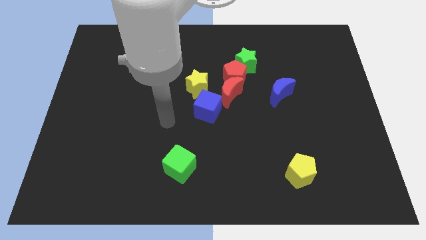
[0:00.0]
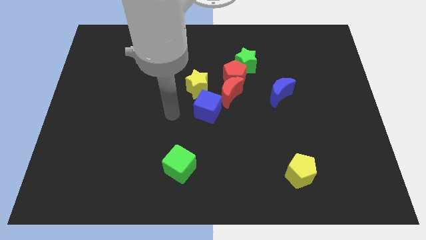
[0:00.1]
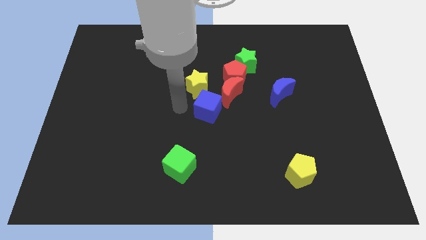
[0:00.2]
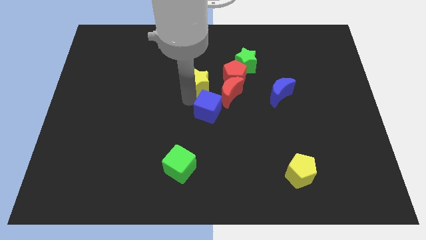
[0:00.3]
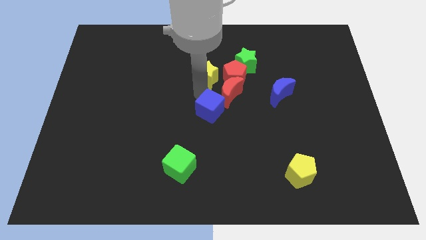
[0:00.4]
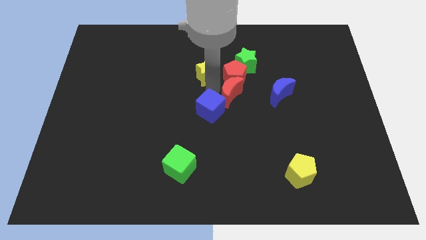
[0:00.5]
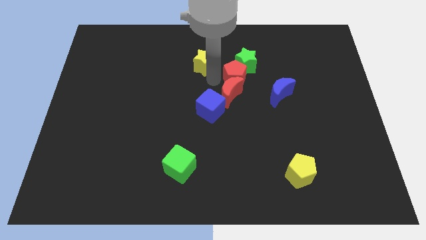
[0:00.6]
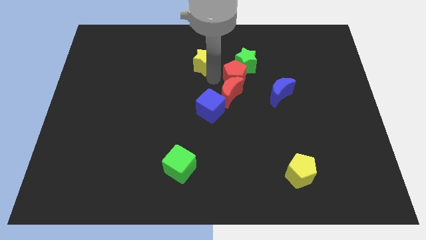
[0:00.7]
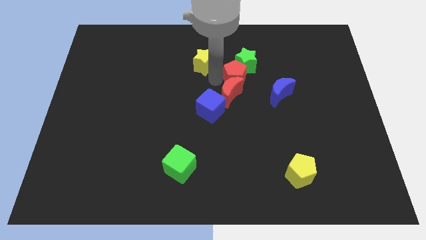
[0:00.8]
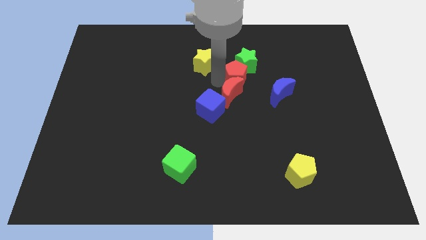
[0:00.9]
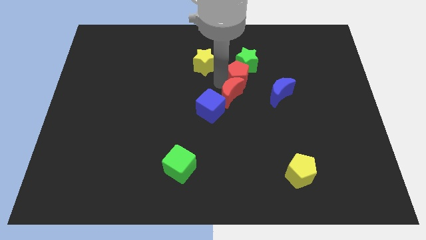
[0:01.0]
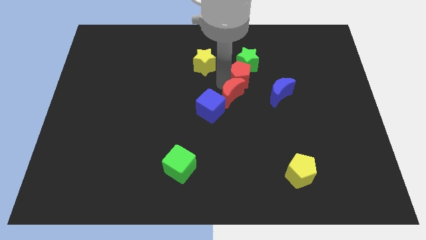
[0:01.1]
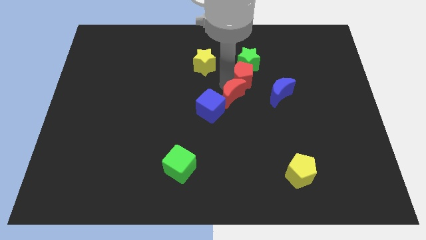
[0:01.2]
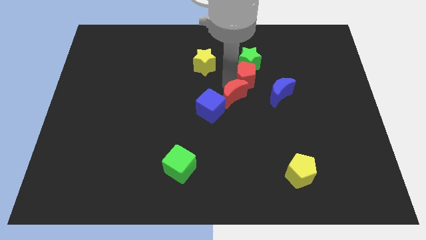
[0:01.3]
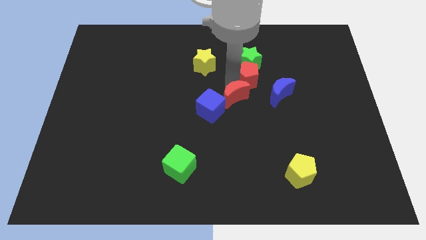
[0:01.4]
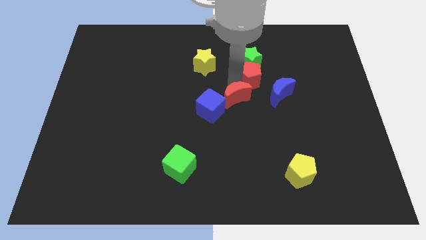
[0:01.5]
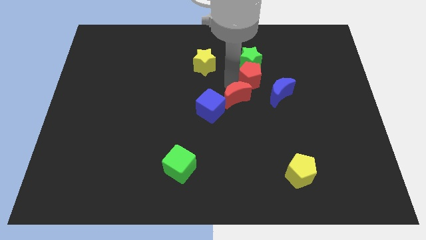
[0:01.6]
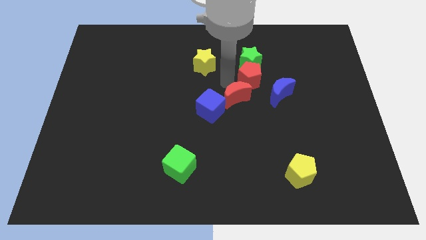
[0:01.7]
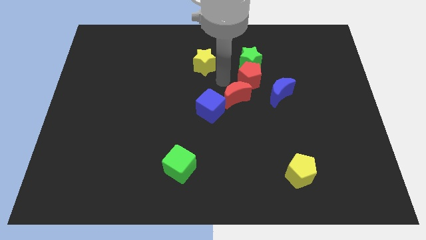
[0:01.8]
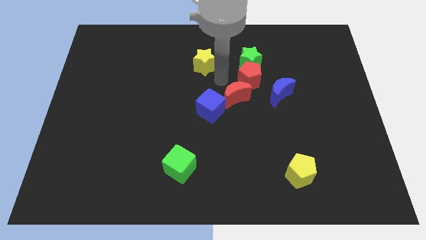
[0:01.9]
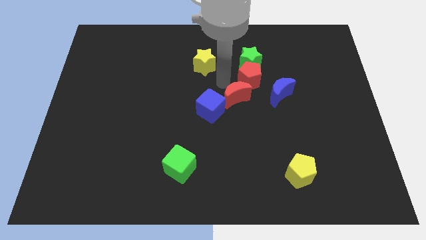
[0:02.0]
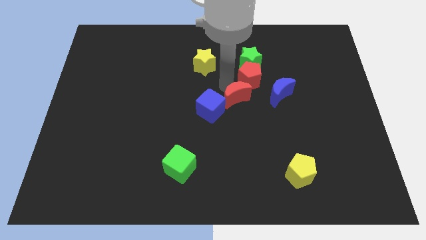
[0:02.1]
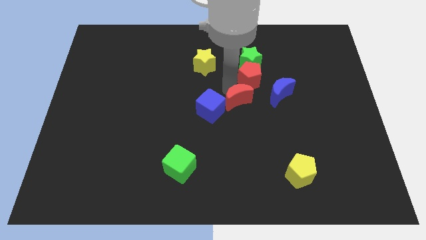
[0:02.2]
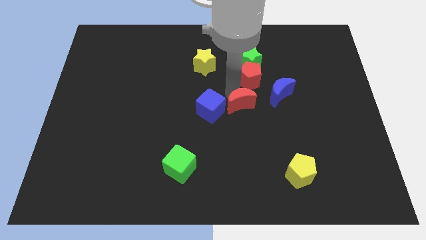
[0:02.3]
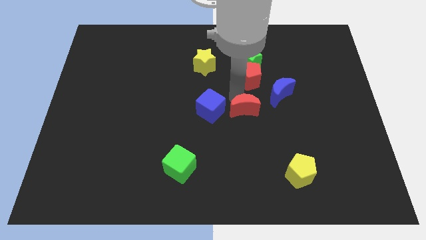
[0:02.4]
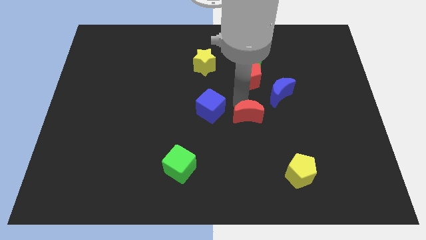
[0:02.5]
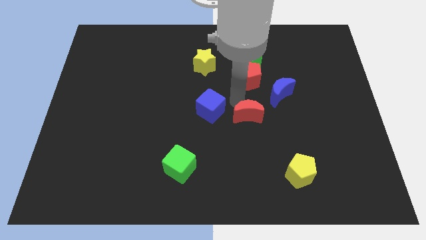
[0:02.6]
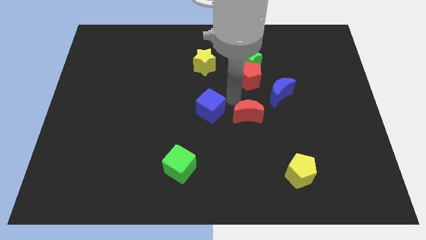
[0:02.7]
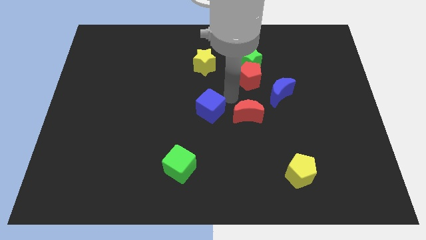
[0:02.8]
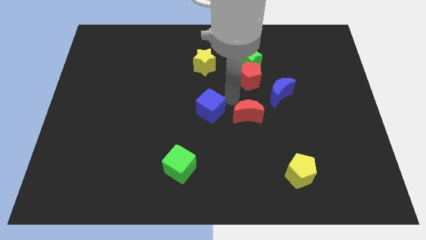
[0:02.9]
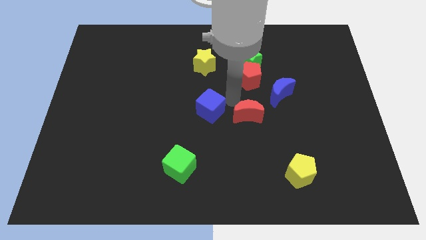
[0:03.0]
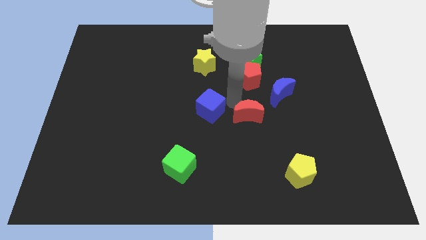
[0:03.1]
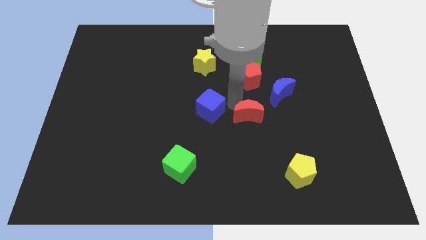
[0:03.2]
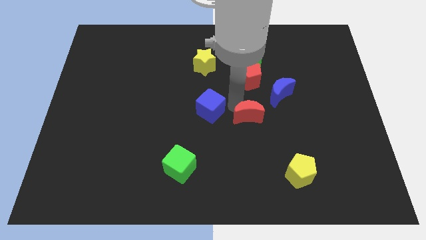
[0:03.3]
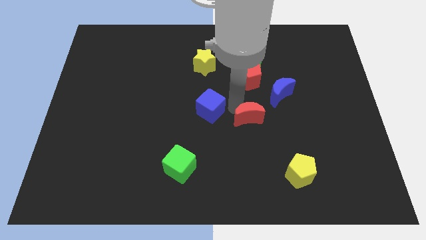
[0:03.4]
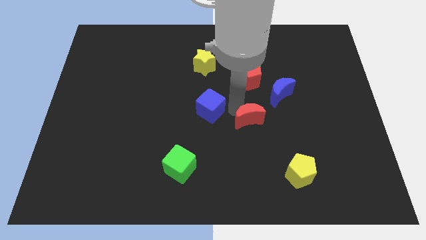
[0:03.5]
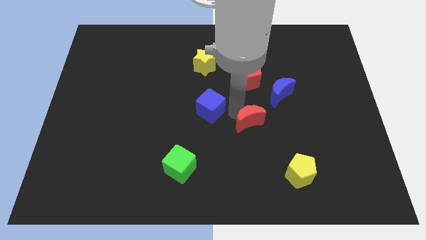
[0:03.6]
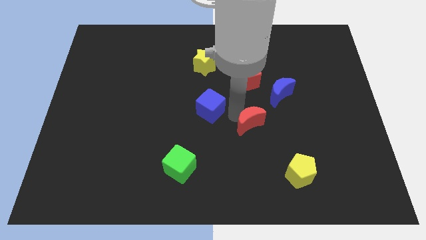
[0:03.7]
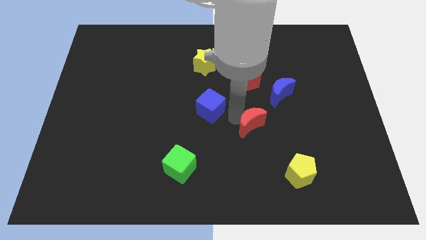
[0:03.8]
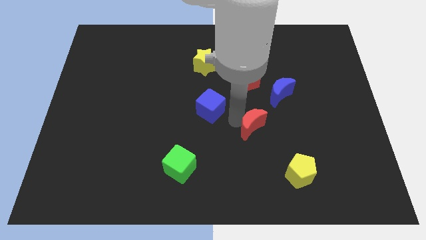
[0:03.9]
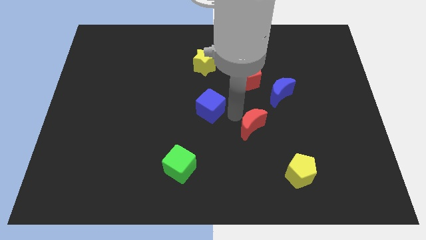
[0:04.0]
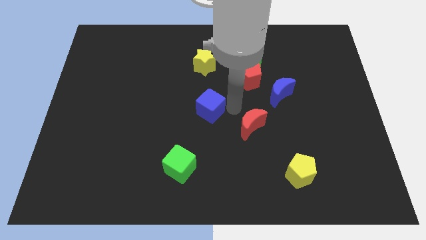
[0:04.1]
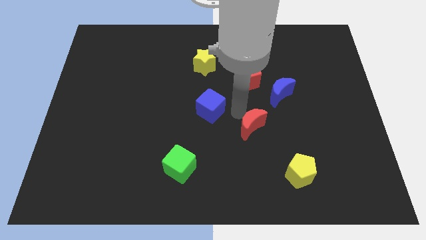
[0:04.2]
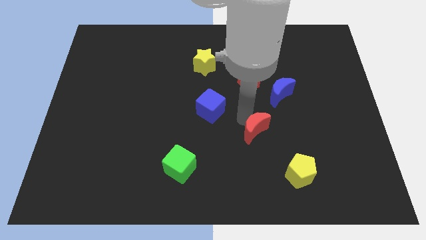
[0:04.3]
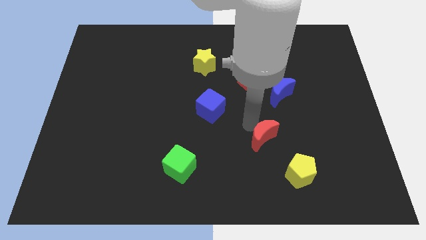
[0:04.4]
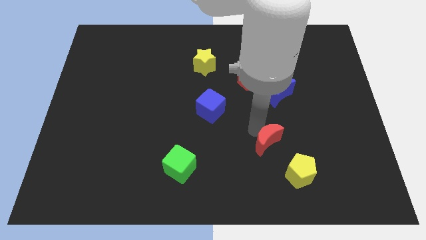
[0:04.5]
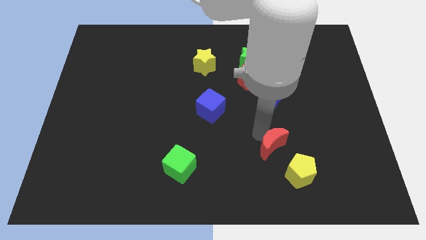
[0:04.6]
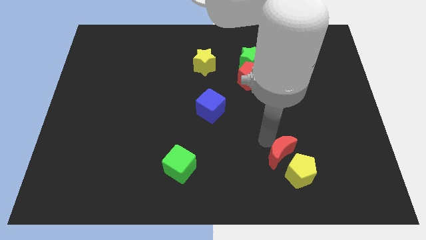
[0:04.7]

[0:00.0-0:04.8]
move the red moon towards the yellow pentagon
